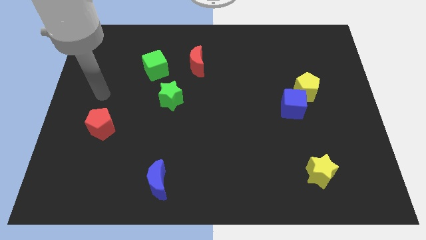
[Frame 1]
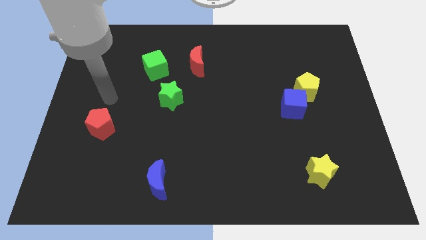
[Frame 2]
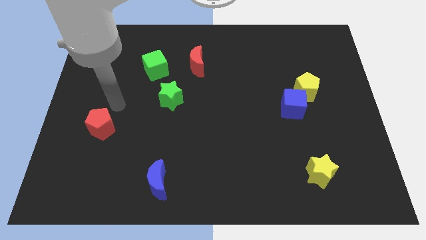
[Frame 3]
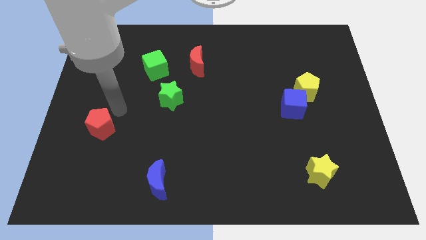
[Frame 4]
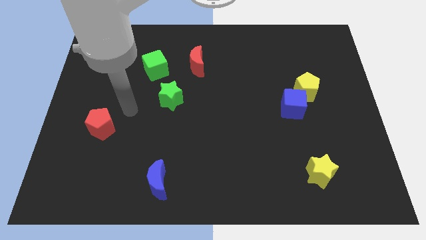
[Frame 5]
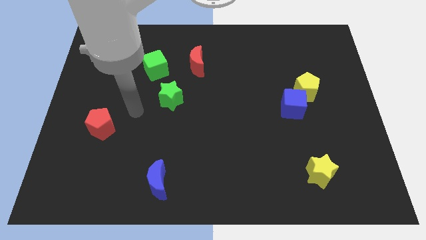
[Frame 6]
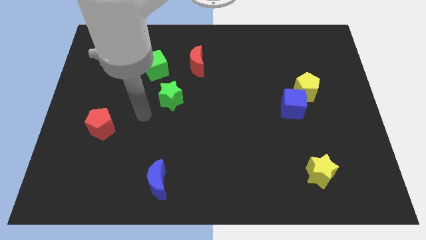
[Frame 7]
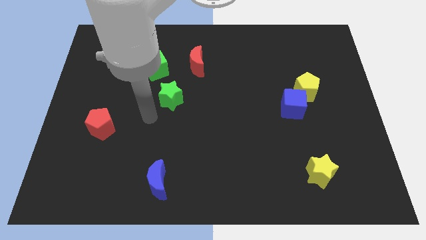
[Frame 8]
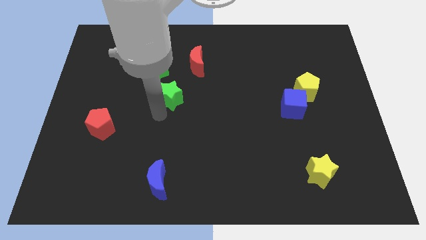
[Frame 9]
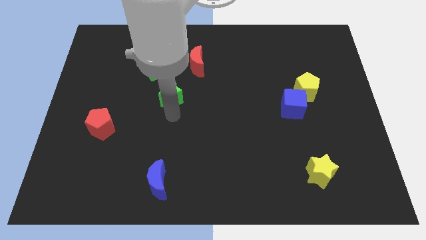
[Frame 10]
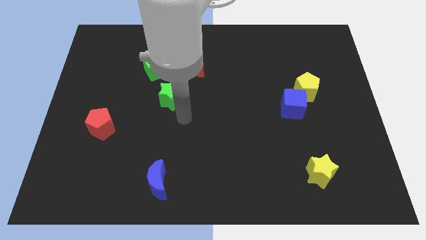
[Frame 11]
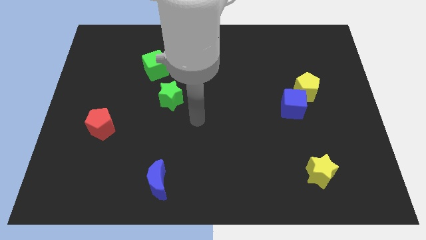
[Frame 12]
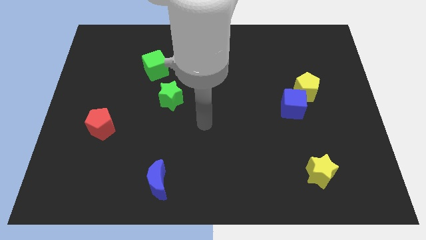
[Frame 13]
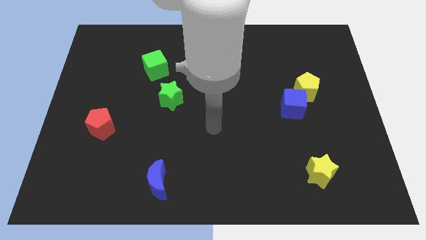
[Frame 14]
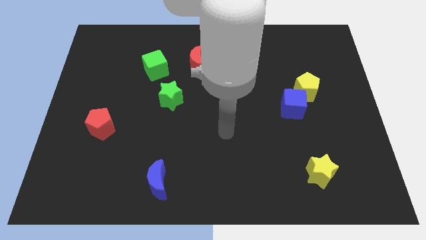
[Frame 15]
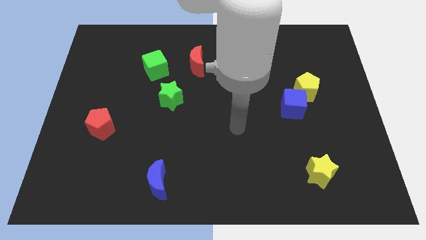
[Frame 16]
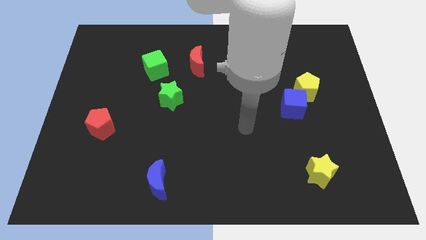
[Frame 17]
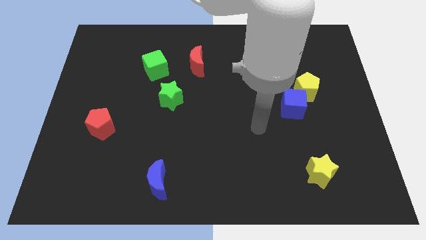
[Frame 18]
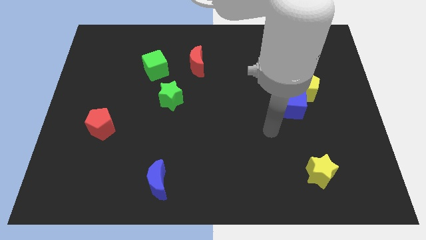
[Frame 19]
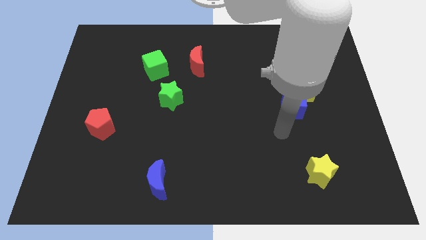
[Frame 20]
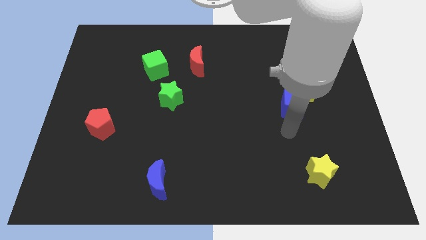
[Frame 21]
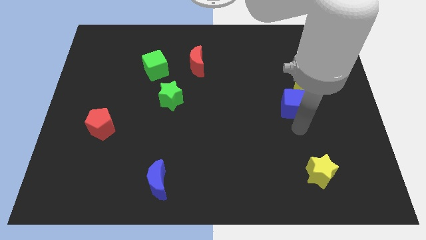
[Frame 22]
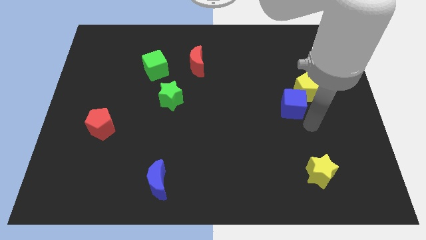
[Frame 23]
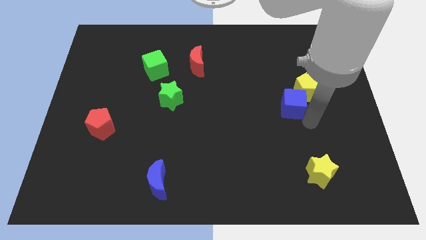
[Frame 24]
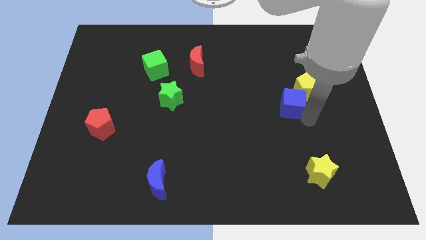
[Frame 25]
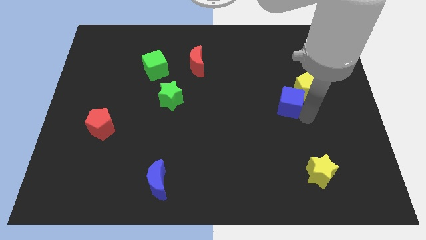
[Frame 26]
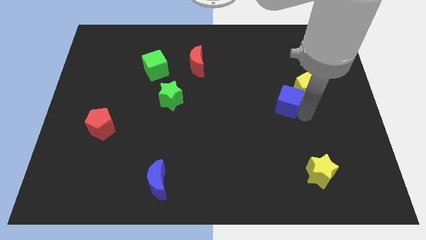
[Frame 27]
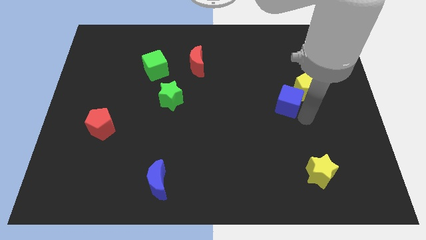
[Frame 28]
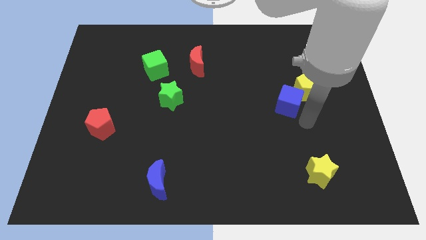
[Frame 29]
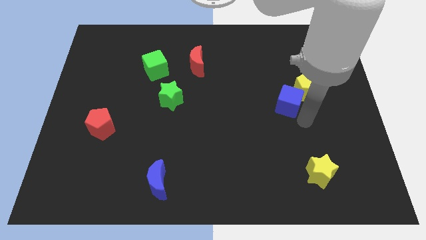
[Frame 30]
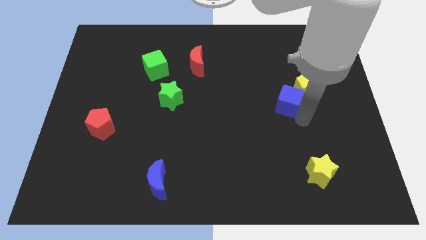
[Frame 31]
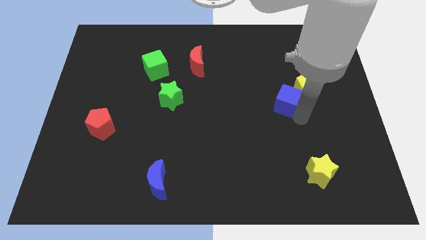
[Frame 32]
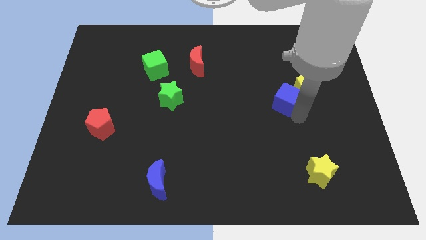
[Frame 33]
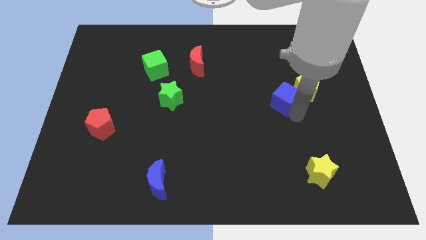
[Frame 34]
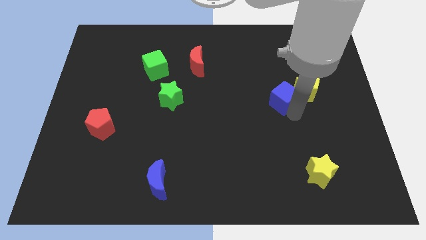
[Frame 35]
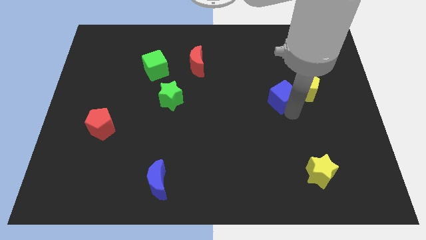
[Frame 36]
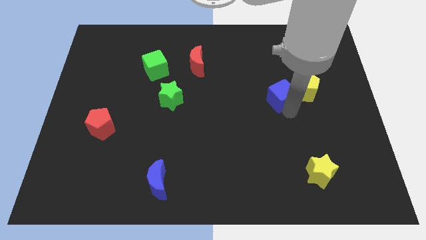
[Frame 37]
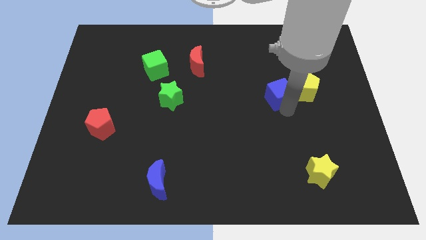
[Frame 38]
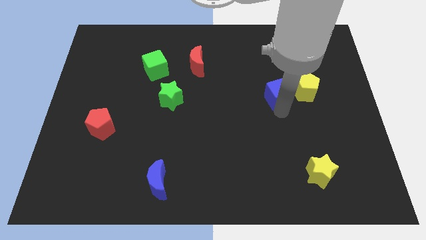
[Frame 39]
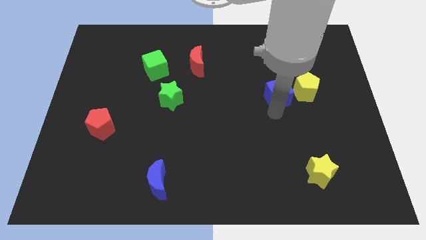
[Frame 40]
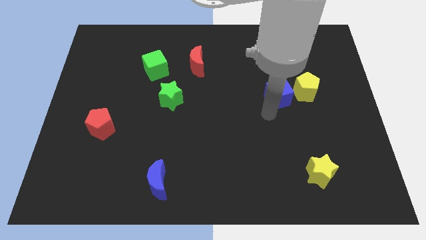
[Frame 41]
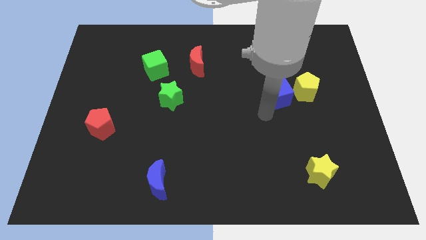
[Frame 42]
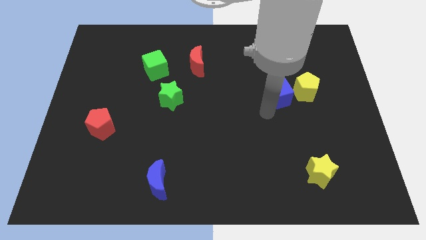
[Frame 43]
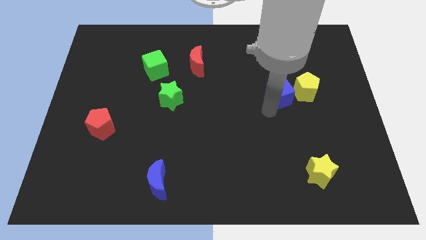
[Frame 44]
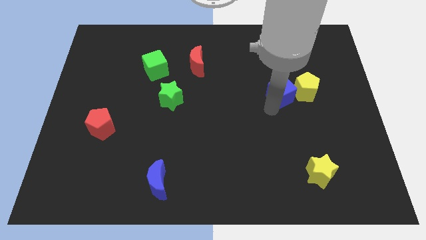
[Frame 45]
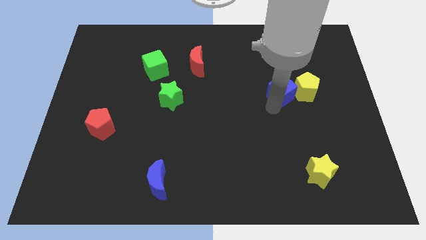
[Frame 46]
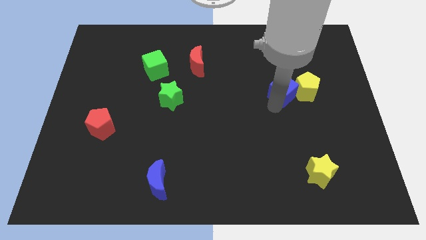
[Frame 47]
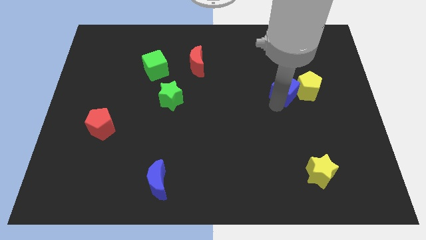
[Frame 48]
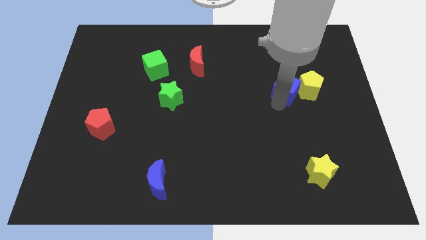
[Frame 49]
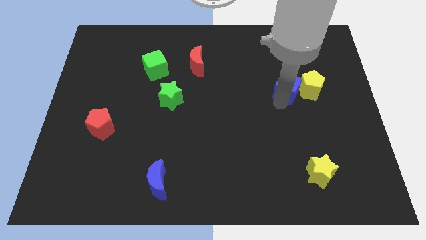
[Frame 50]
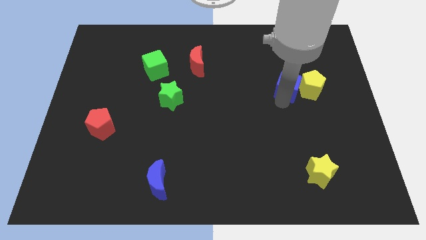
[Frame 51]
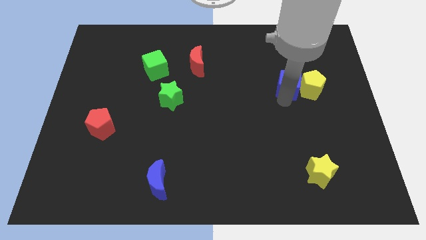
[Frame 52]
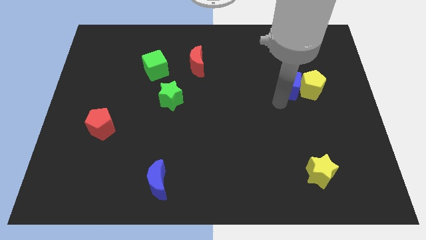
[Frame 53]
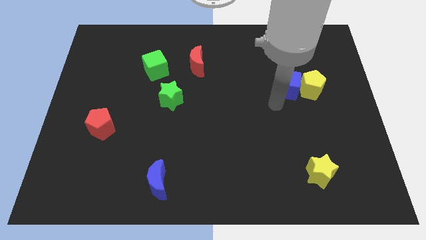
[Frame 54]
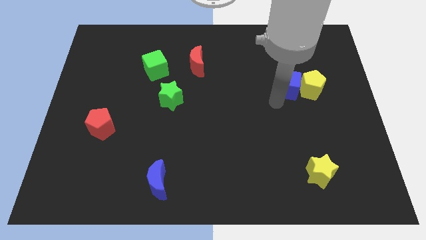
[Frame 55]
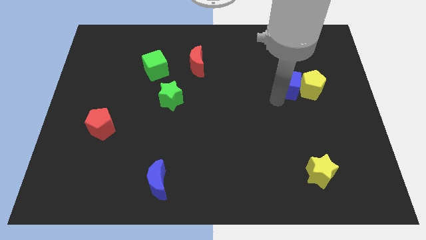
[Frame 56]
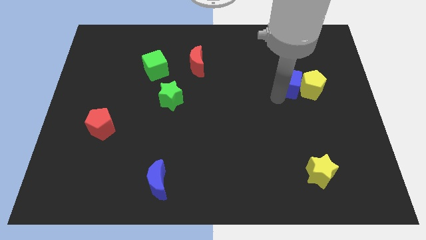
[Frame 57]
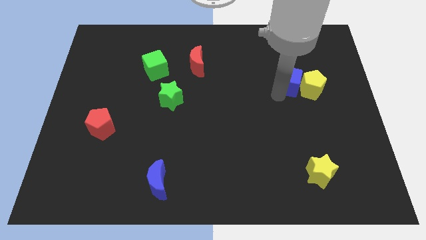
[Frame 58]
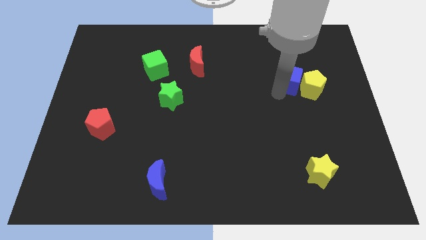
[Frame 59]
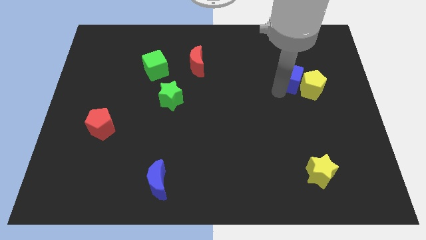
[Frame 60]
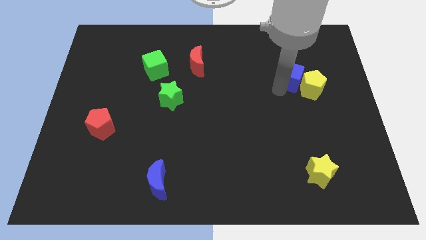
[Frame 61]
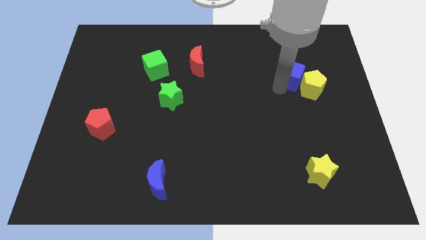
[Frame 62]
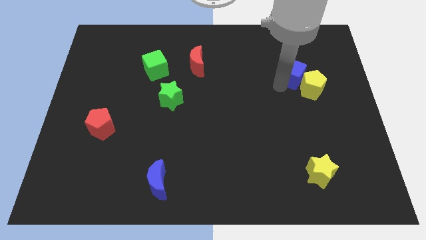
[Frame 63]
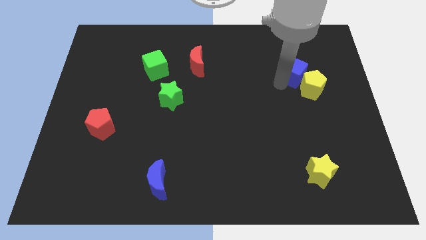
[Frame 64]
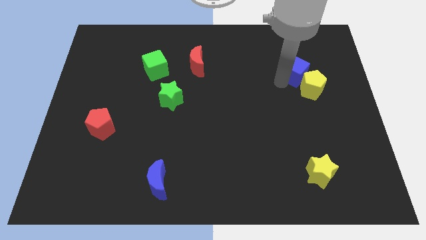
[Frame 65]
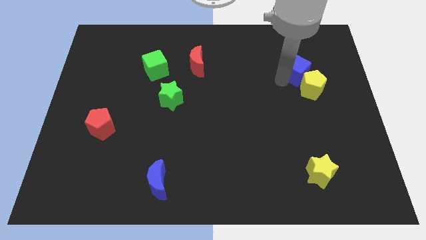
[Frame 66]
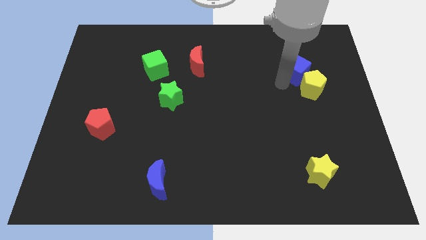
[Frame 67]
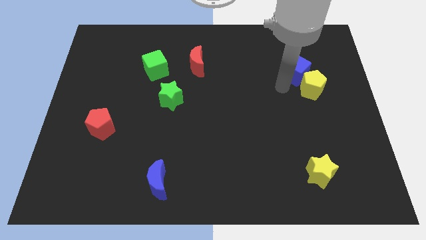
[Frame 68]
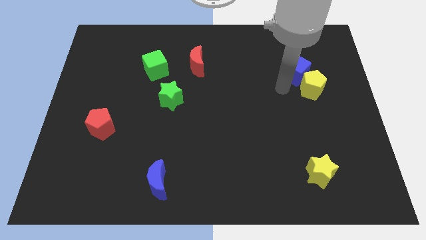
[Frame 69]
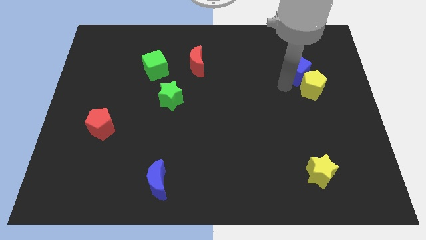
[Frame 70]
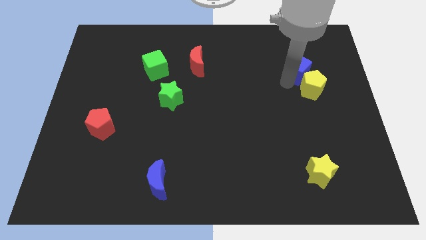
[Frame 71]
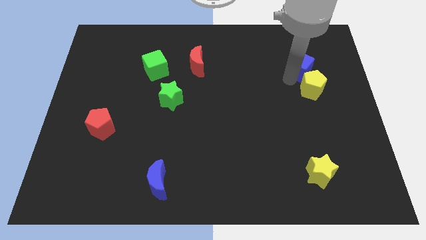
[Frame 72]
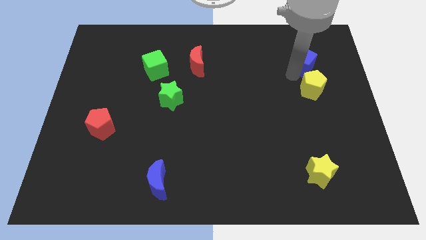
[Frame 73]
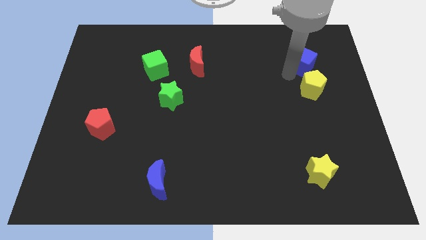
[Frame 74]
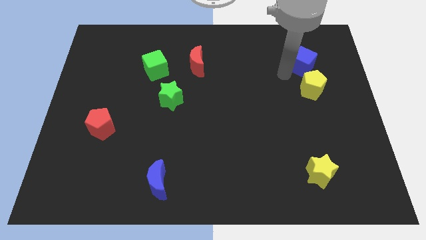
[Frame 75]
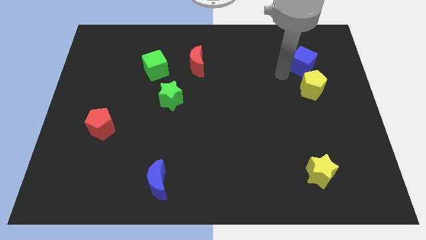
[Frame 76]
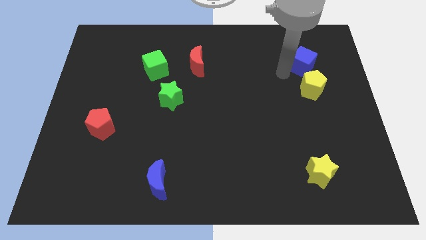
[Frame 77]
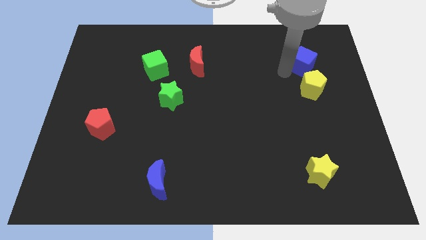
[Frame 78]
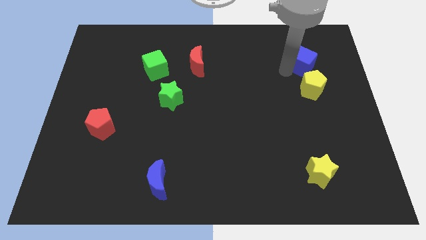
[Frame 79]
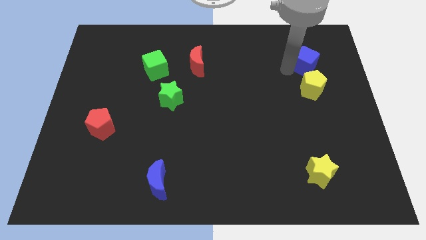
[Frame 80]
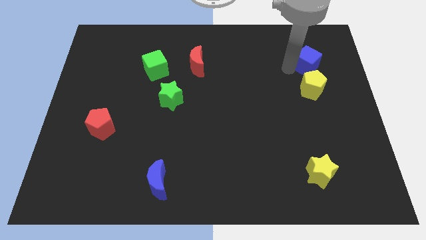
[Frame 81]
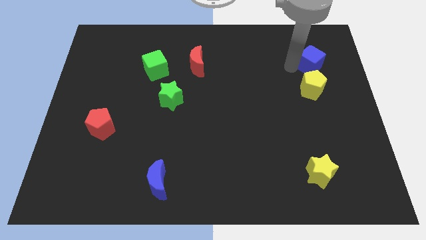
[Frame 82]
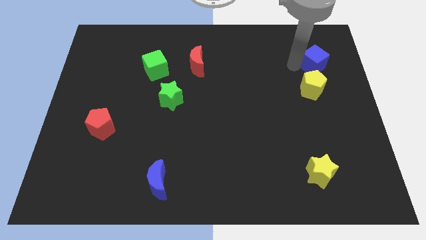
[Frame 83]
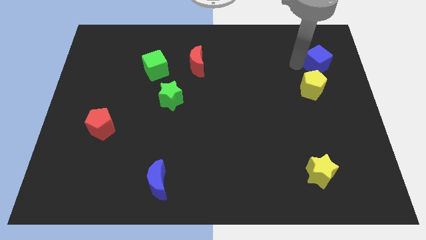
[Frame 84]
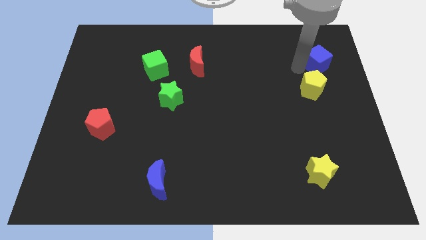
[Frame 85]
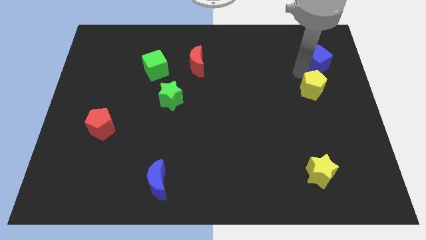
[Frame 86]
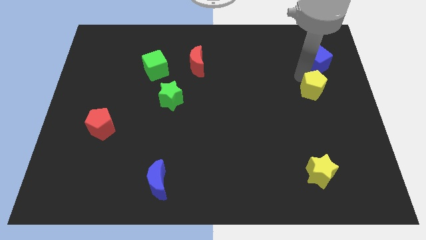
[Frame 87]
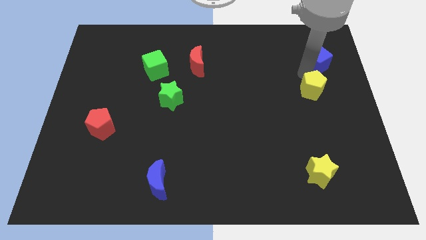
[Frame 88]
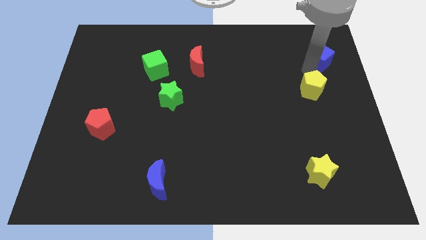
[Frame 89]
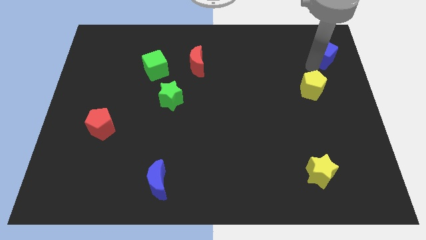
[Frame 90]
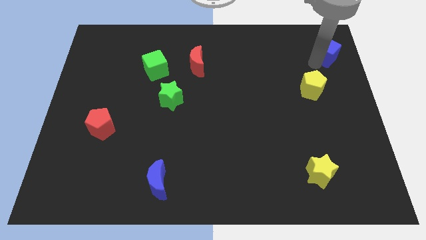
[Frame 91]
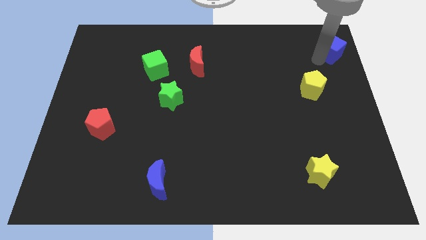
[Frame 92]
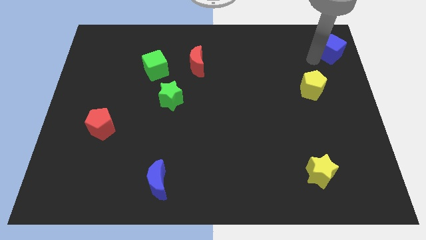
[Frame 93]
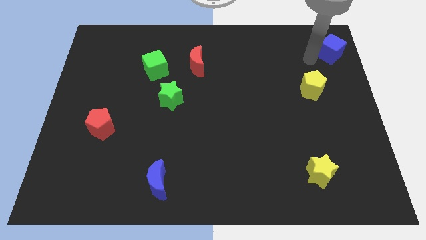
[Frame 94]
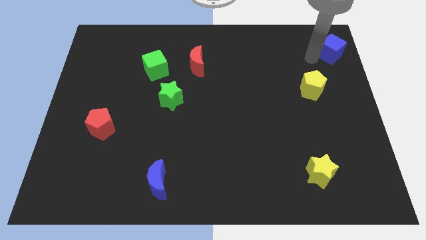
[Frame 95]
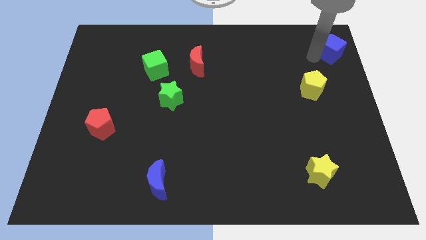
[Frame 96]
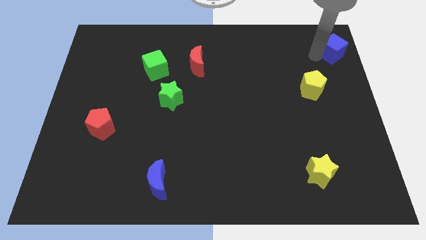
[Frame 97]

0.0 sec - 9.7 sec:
move the blue cube to the top right corner
